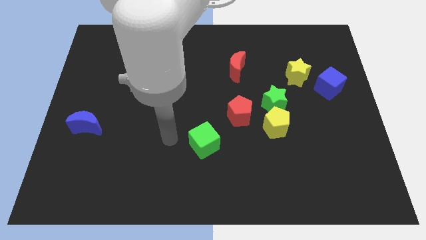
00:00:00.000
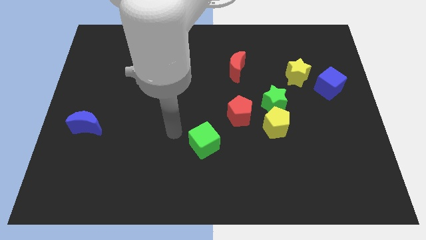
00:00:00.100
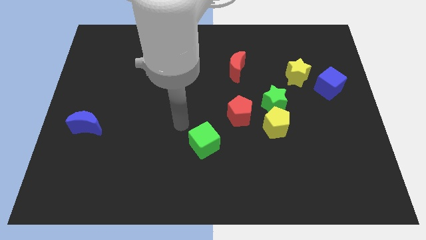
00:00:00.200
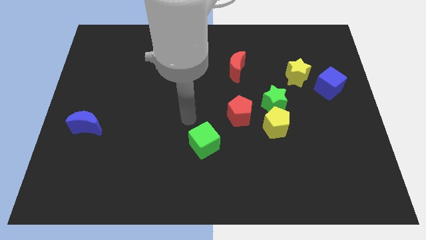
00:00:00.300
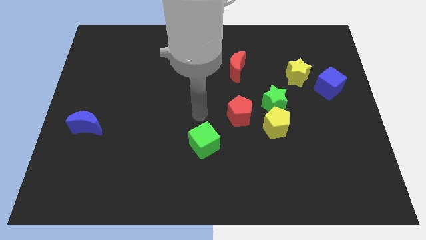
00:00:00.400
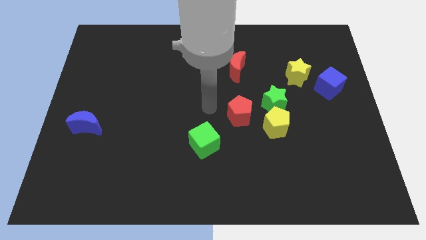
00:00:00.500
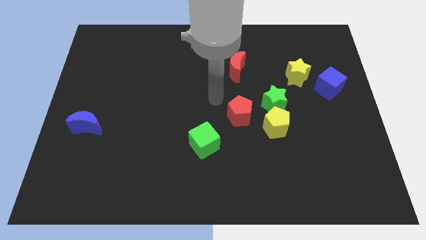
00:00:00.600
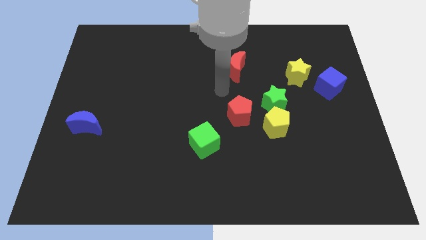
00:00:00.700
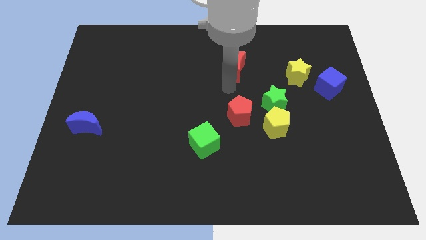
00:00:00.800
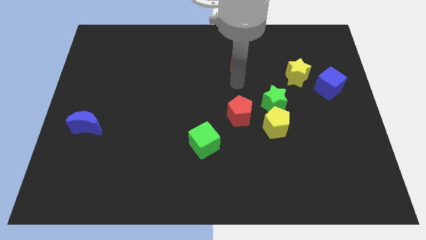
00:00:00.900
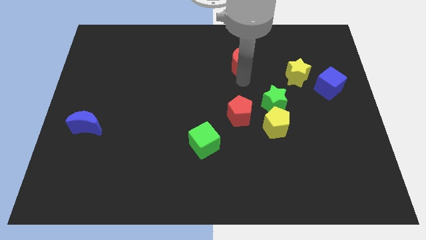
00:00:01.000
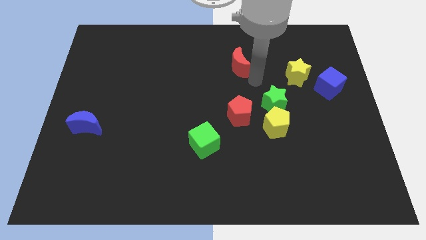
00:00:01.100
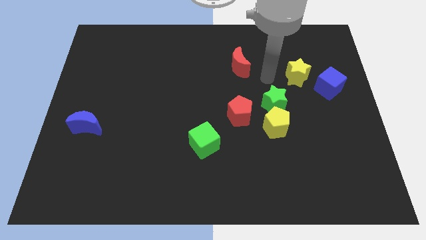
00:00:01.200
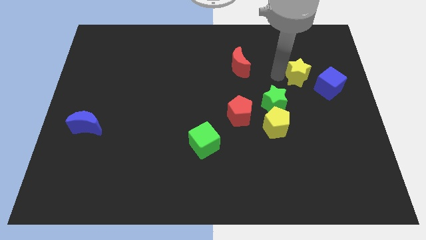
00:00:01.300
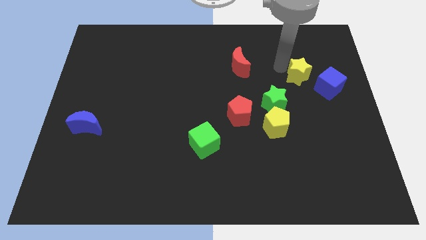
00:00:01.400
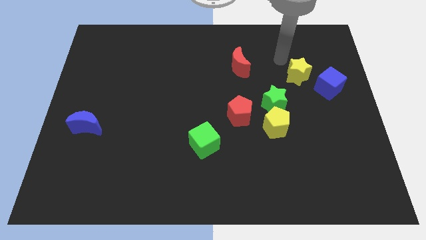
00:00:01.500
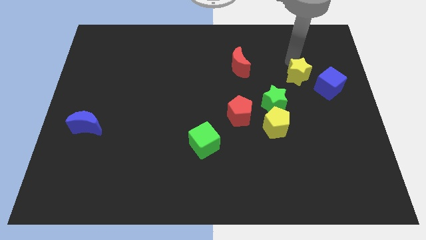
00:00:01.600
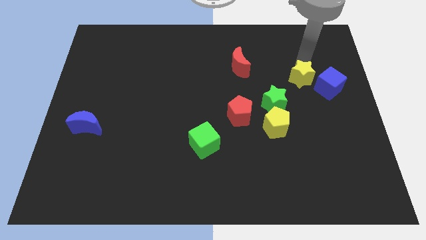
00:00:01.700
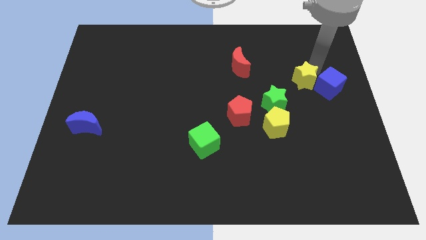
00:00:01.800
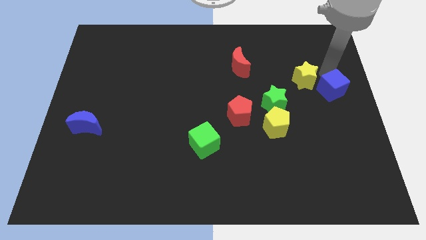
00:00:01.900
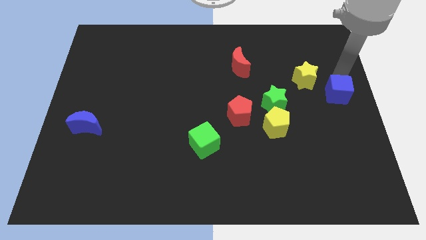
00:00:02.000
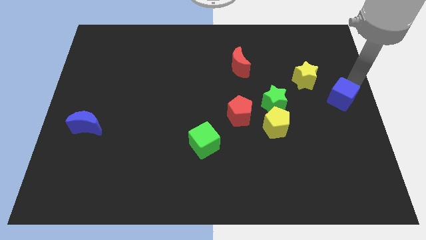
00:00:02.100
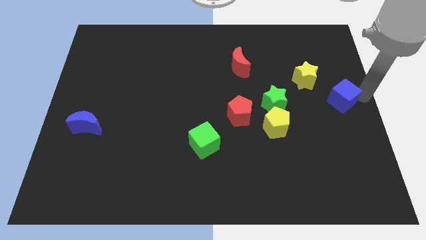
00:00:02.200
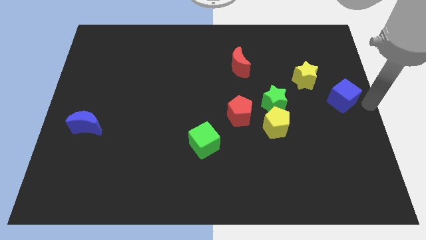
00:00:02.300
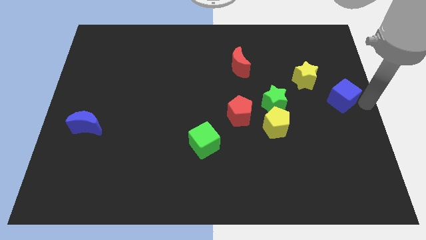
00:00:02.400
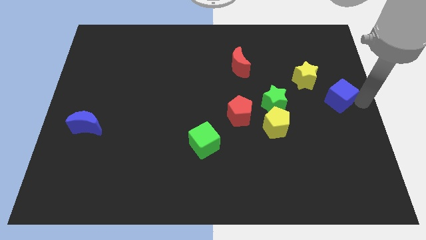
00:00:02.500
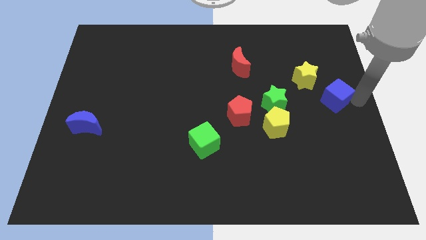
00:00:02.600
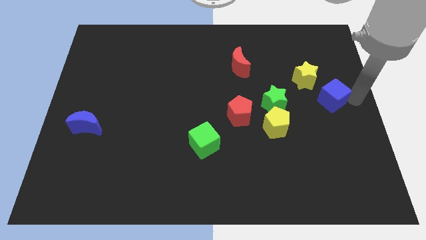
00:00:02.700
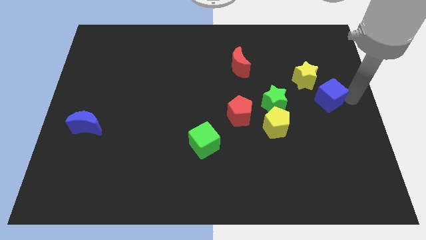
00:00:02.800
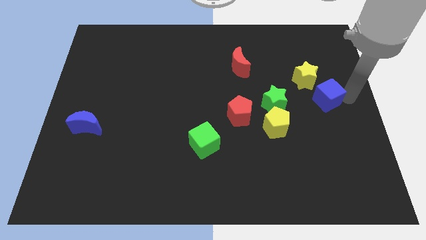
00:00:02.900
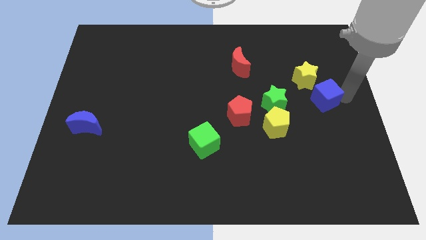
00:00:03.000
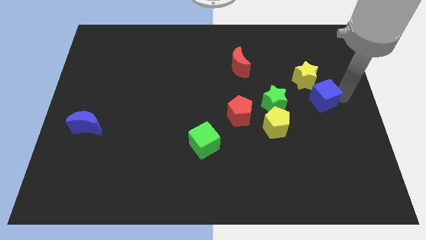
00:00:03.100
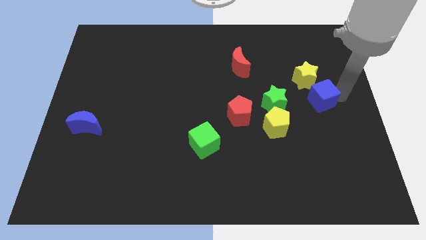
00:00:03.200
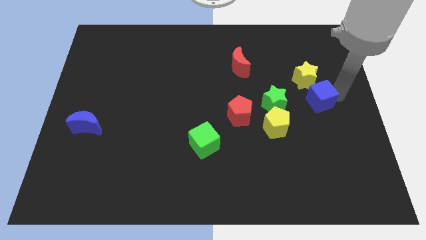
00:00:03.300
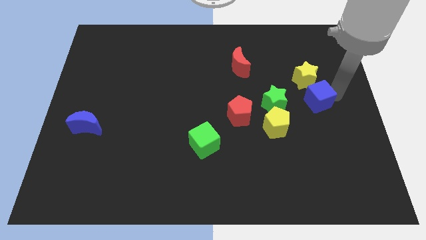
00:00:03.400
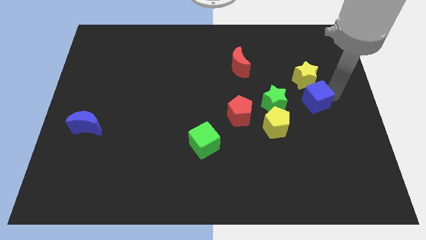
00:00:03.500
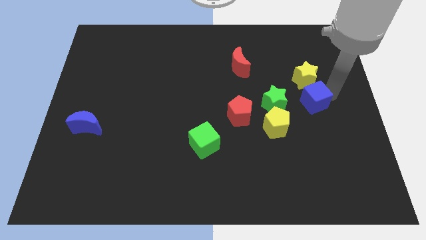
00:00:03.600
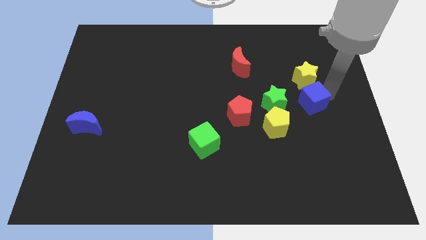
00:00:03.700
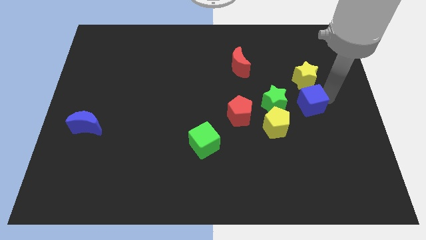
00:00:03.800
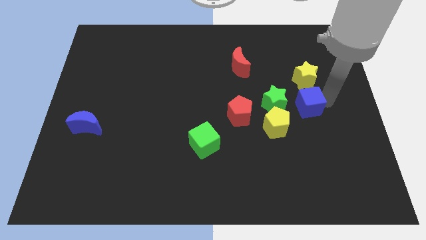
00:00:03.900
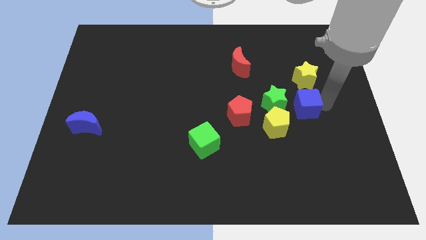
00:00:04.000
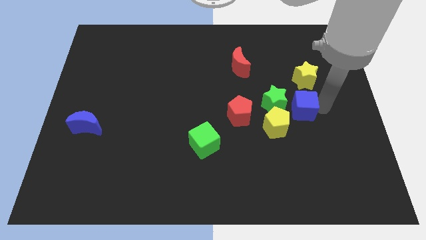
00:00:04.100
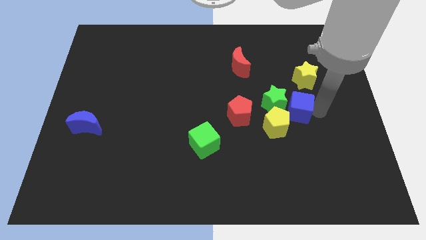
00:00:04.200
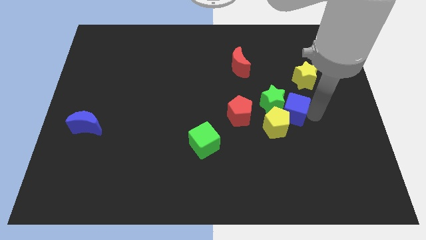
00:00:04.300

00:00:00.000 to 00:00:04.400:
move the blue cube a little to the left

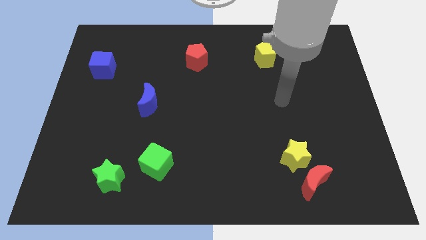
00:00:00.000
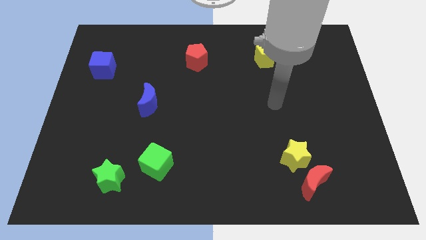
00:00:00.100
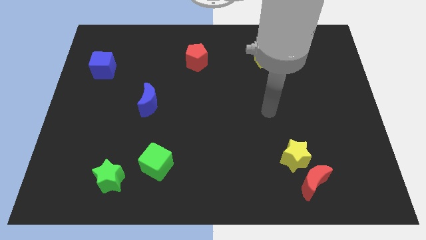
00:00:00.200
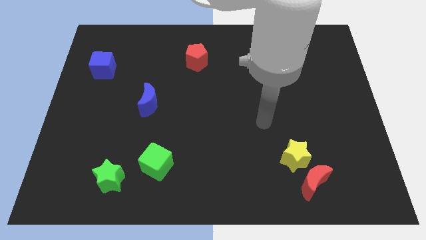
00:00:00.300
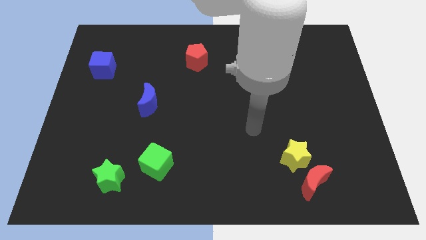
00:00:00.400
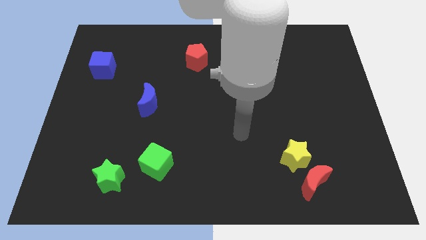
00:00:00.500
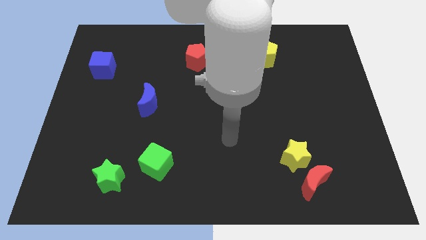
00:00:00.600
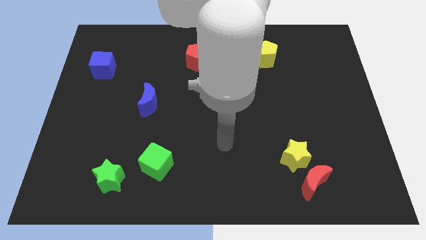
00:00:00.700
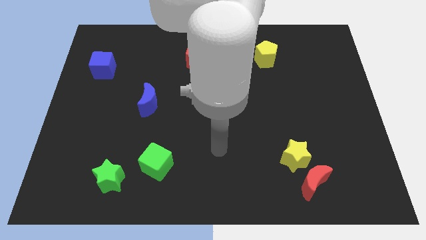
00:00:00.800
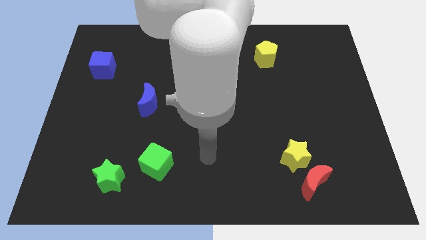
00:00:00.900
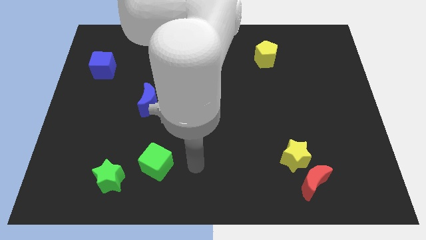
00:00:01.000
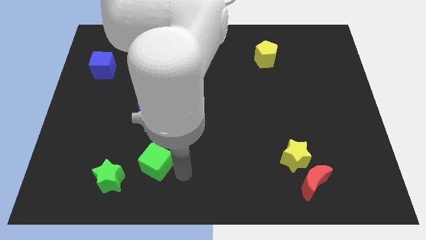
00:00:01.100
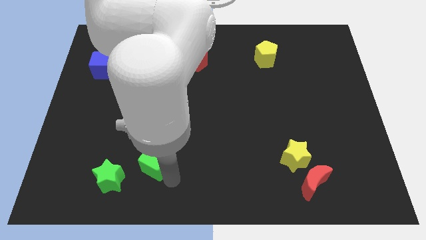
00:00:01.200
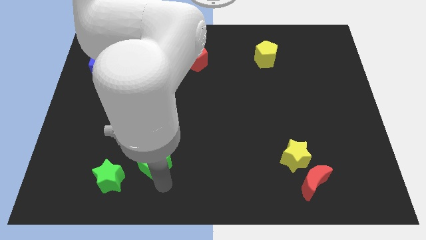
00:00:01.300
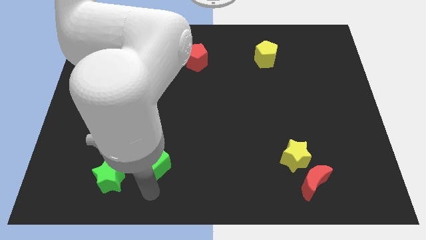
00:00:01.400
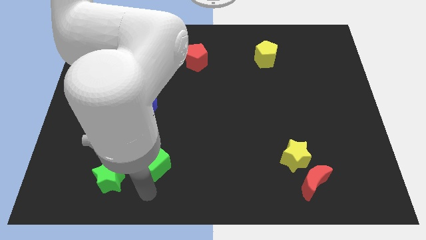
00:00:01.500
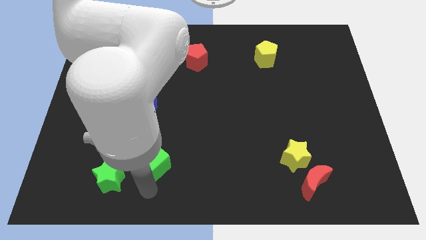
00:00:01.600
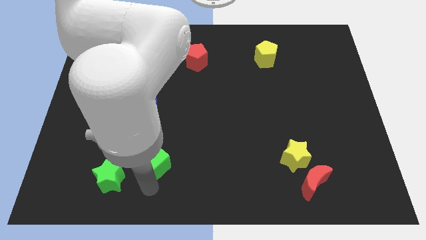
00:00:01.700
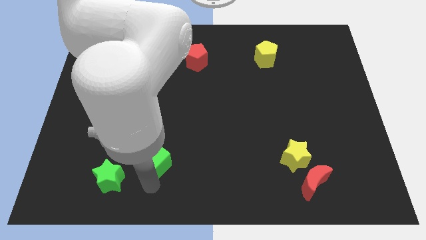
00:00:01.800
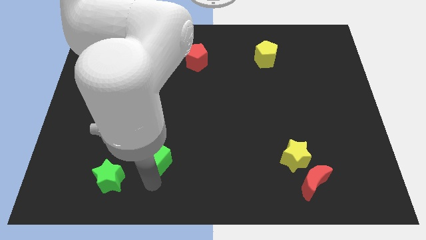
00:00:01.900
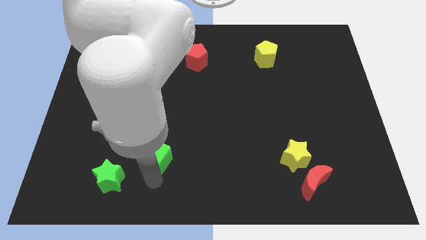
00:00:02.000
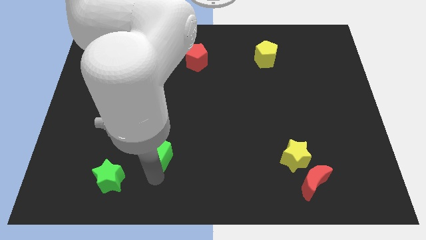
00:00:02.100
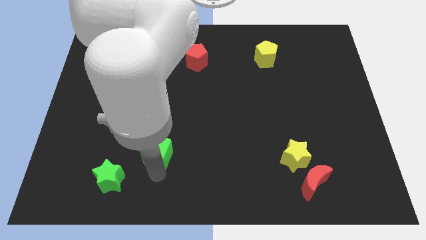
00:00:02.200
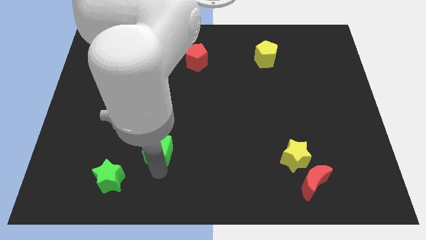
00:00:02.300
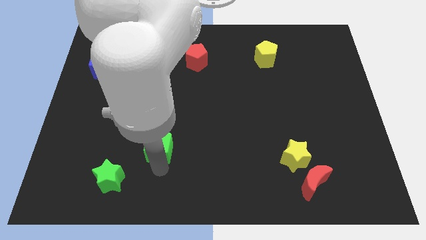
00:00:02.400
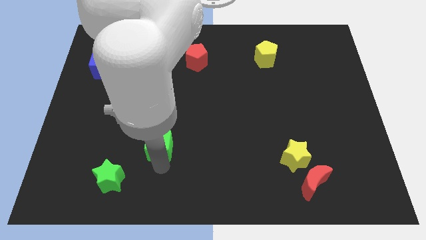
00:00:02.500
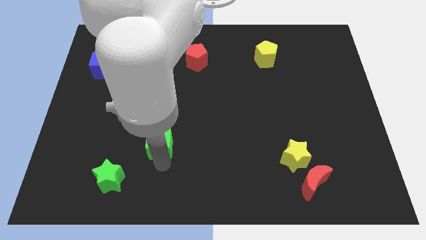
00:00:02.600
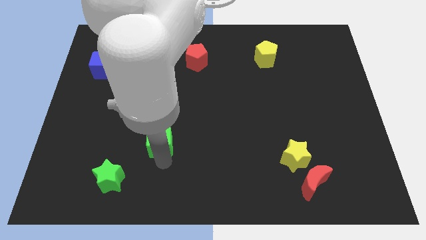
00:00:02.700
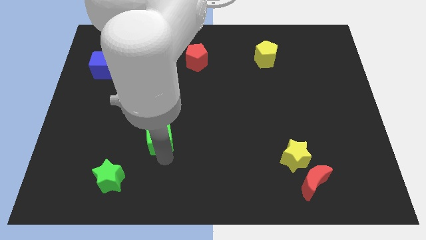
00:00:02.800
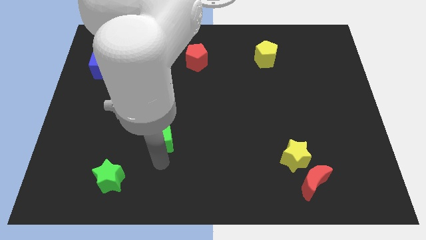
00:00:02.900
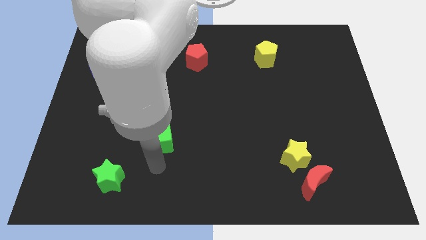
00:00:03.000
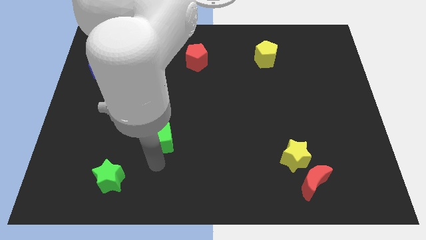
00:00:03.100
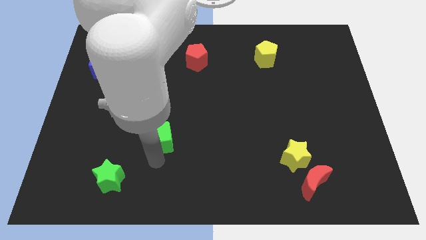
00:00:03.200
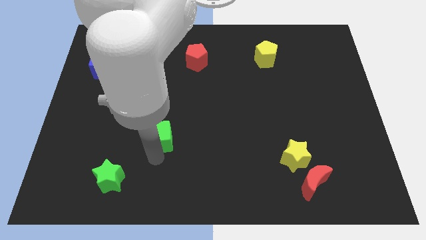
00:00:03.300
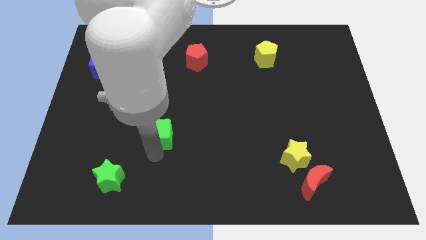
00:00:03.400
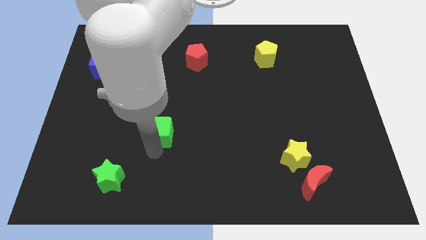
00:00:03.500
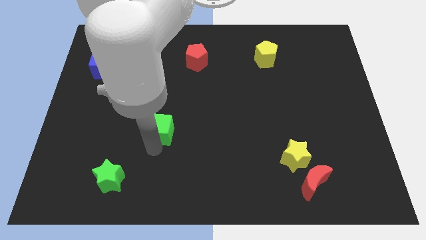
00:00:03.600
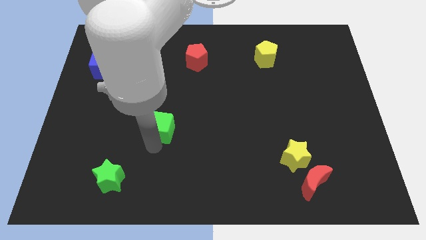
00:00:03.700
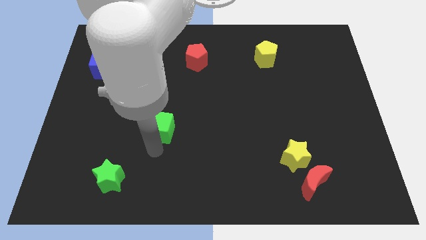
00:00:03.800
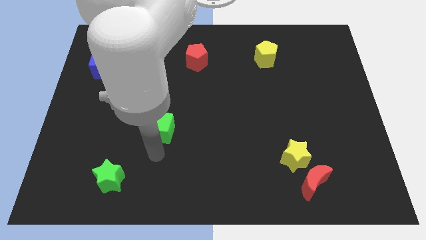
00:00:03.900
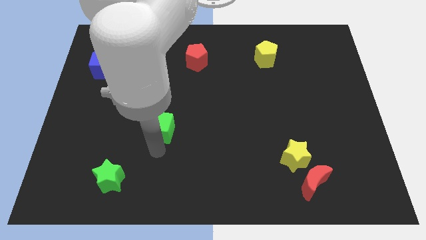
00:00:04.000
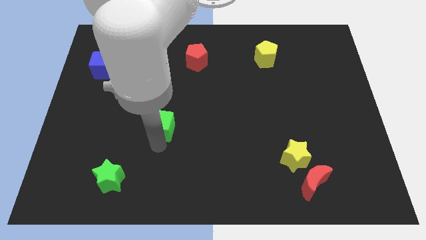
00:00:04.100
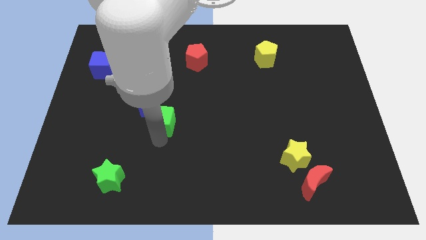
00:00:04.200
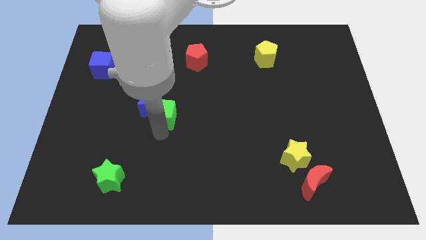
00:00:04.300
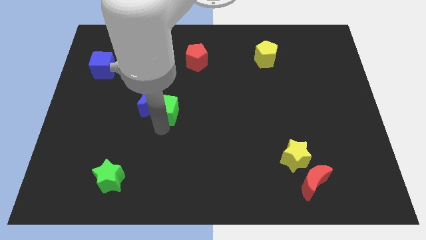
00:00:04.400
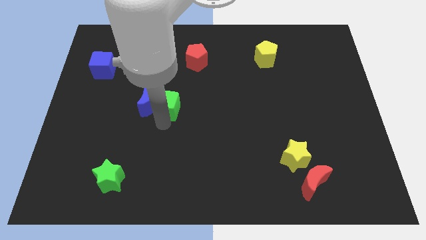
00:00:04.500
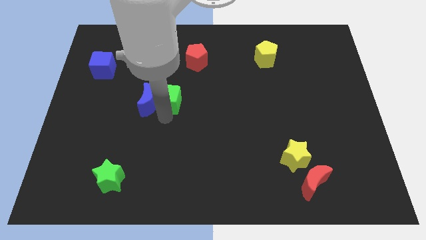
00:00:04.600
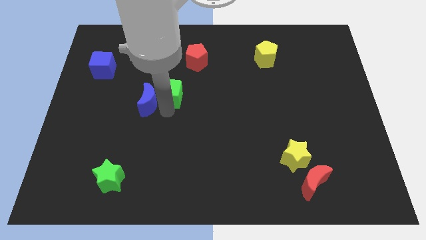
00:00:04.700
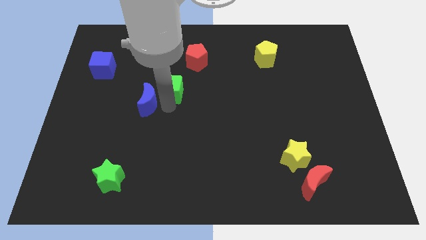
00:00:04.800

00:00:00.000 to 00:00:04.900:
push the green cube up
